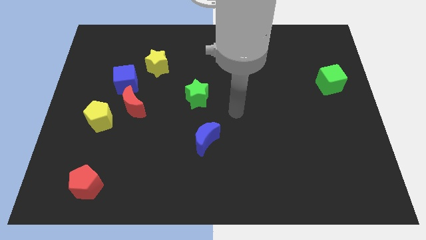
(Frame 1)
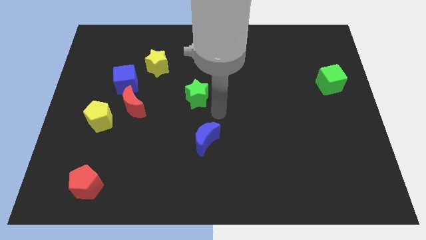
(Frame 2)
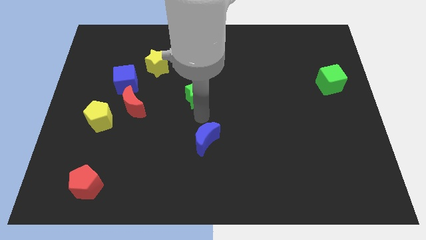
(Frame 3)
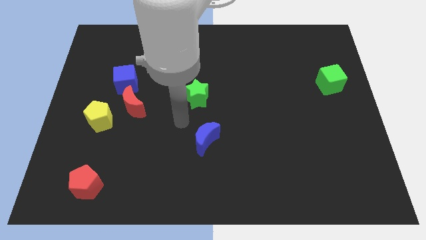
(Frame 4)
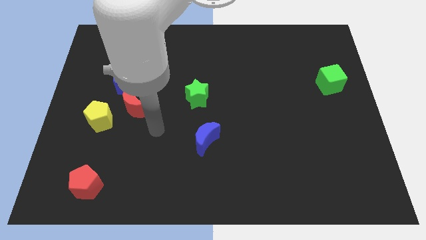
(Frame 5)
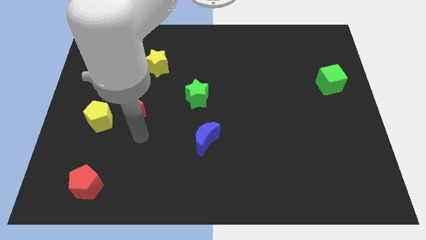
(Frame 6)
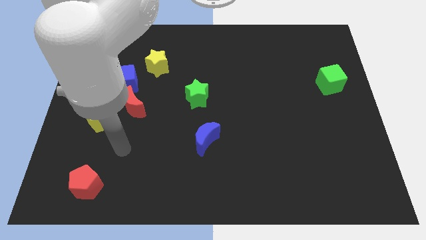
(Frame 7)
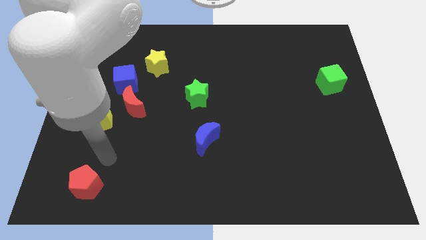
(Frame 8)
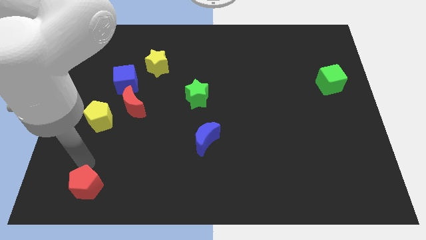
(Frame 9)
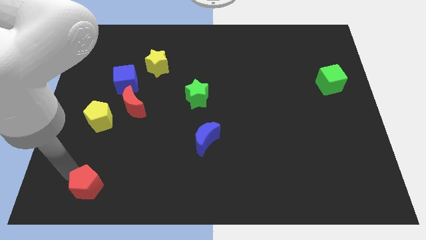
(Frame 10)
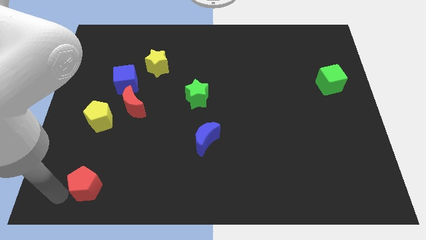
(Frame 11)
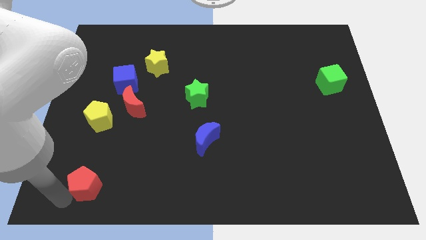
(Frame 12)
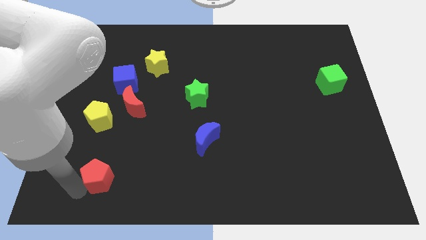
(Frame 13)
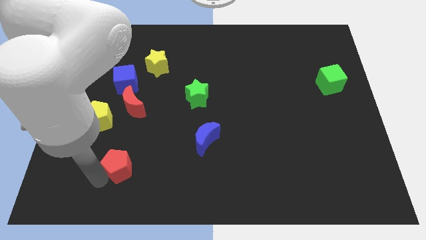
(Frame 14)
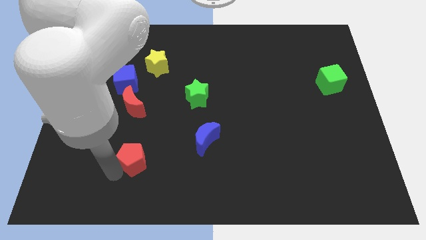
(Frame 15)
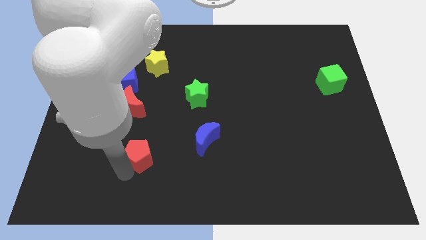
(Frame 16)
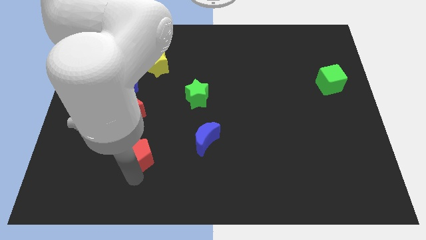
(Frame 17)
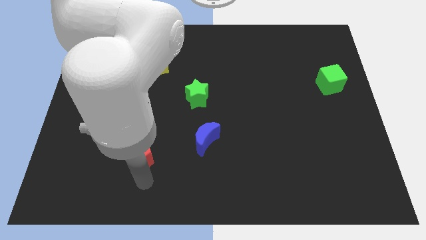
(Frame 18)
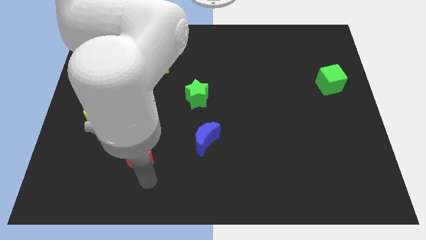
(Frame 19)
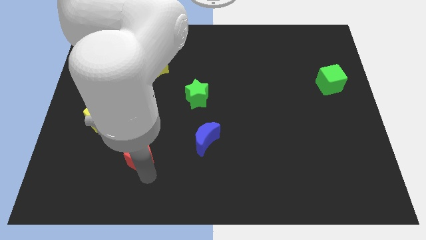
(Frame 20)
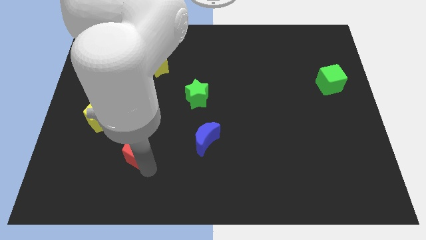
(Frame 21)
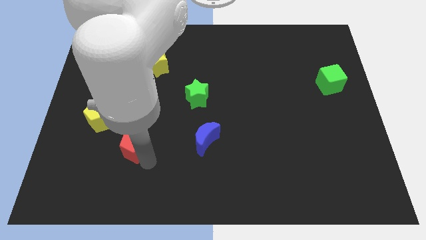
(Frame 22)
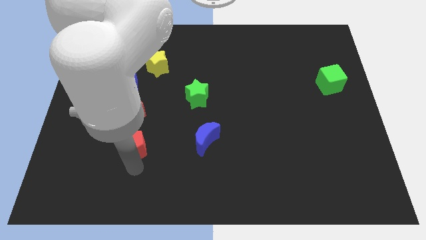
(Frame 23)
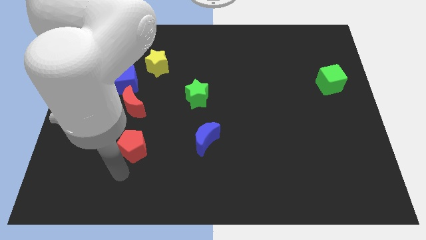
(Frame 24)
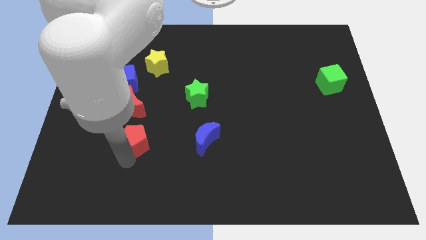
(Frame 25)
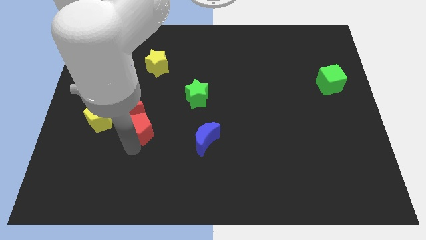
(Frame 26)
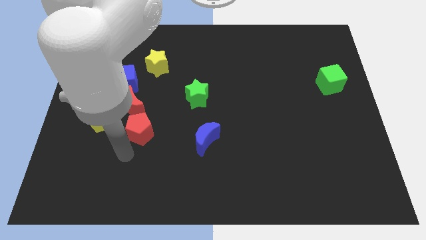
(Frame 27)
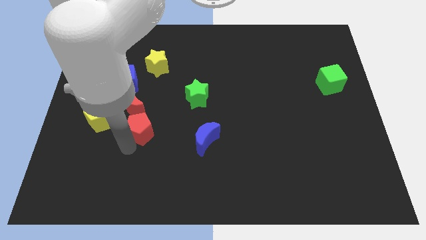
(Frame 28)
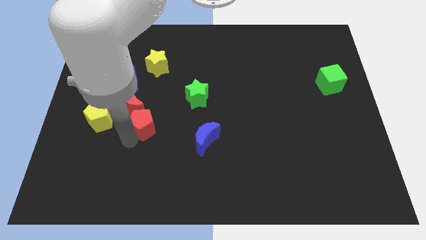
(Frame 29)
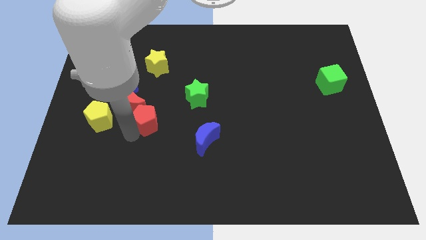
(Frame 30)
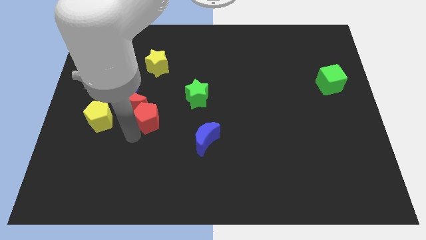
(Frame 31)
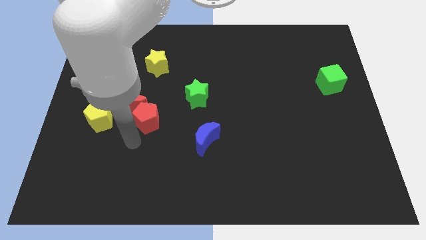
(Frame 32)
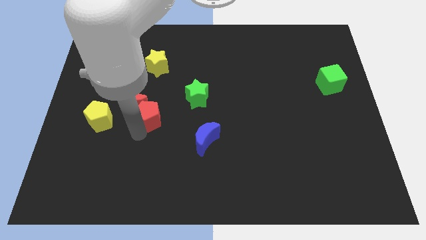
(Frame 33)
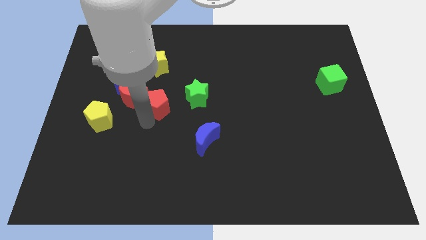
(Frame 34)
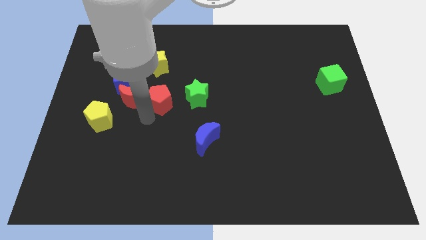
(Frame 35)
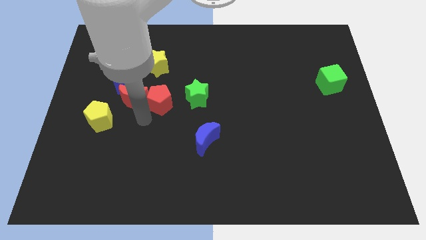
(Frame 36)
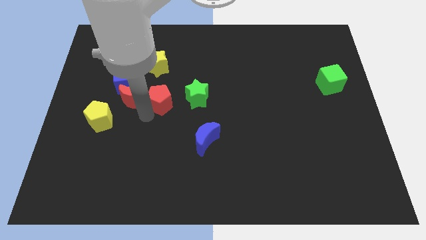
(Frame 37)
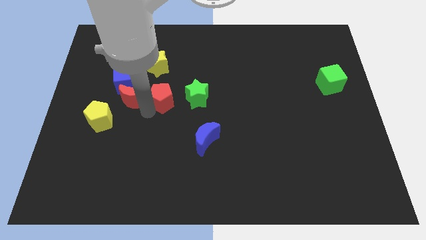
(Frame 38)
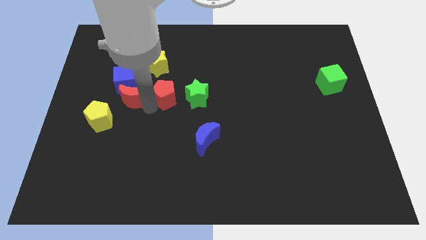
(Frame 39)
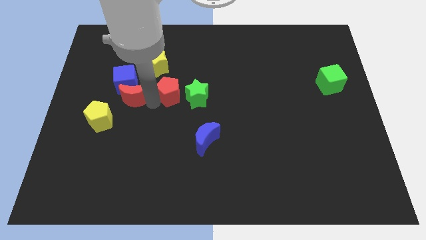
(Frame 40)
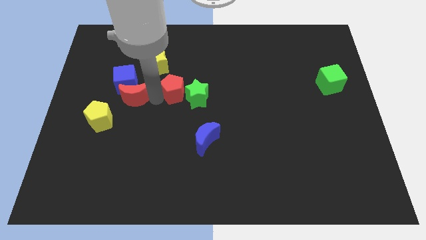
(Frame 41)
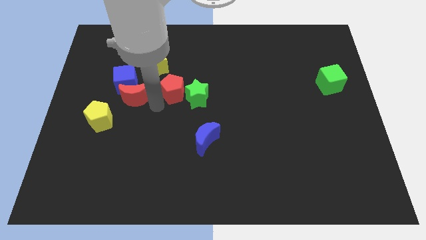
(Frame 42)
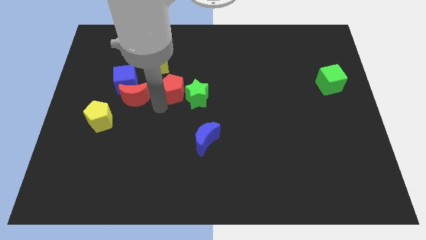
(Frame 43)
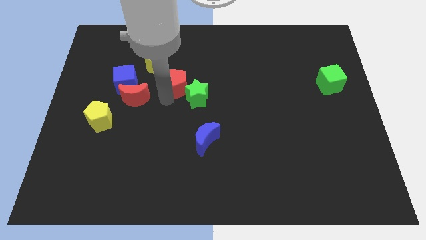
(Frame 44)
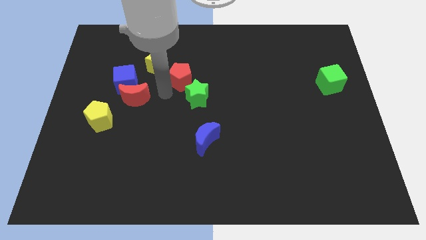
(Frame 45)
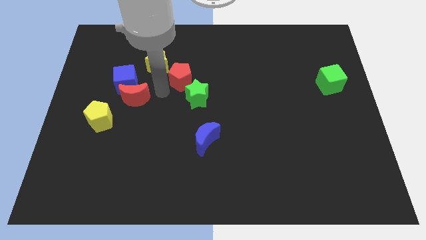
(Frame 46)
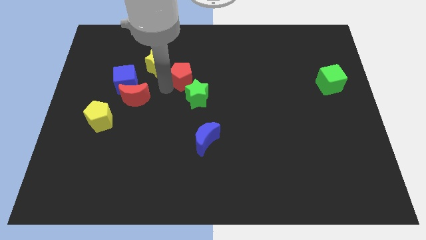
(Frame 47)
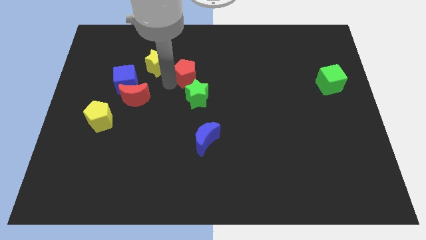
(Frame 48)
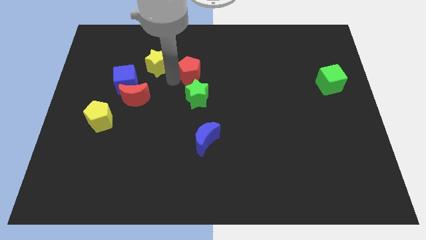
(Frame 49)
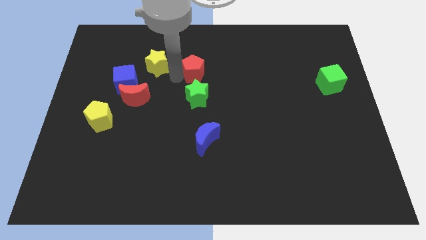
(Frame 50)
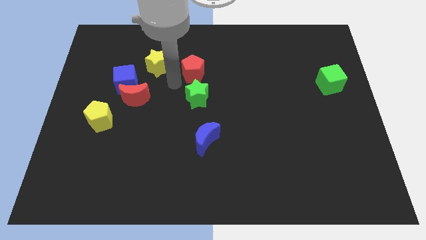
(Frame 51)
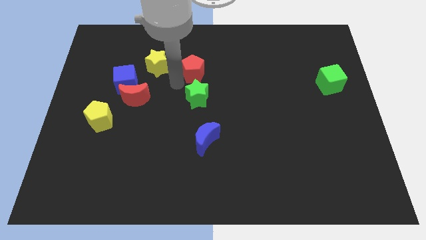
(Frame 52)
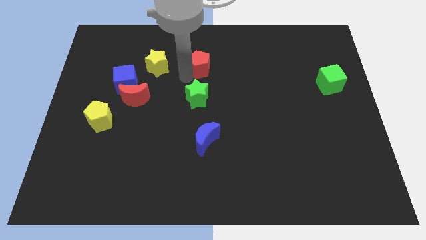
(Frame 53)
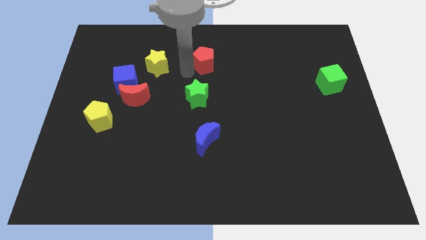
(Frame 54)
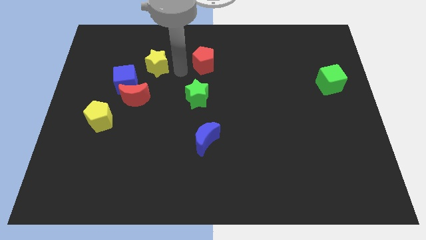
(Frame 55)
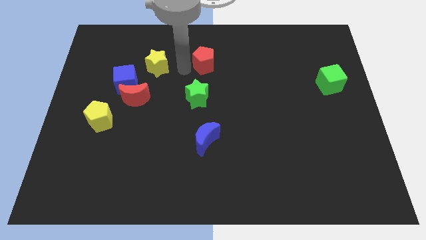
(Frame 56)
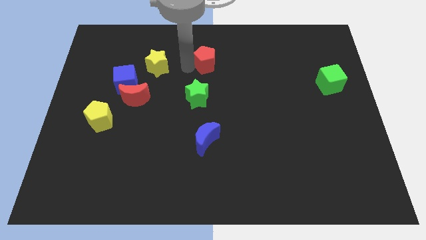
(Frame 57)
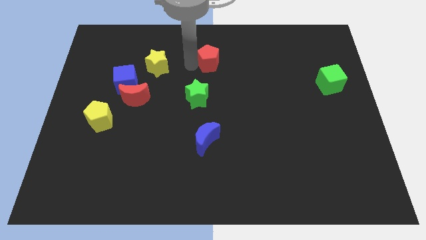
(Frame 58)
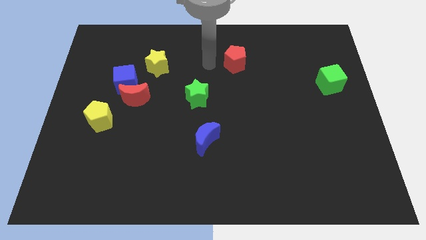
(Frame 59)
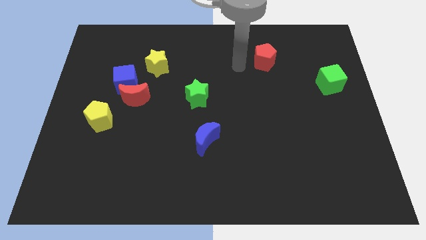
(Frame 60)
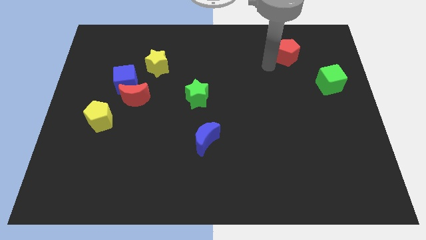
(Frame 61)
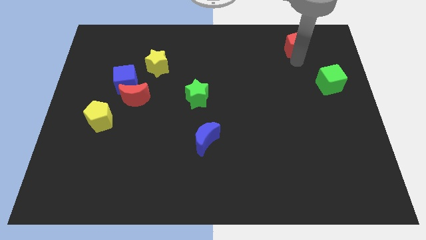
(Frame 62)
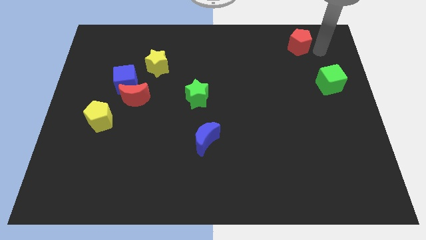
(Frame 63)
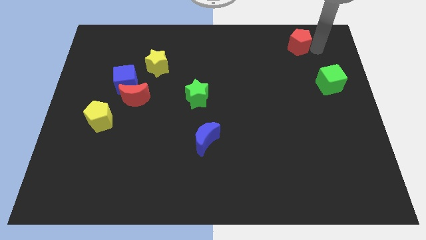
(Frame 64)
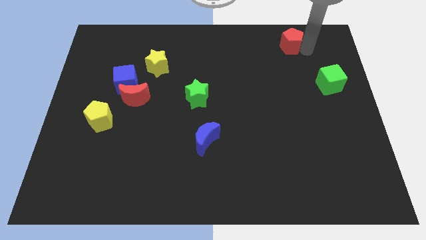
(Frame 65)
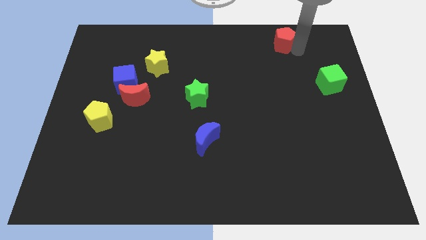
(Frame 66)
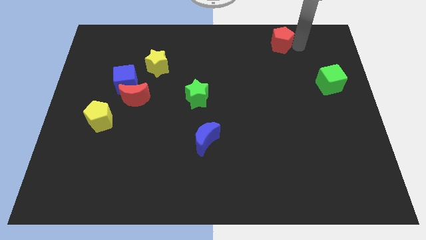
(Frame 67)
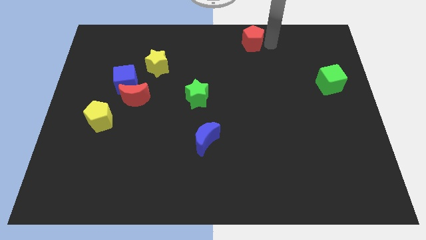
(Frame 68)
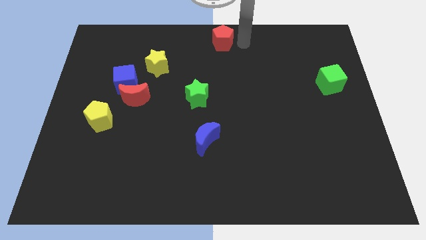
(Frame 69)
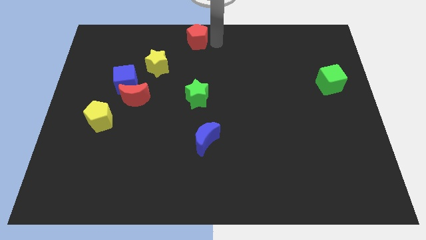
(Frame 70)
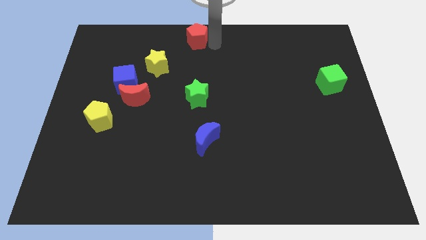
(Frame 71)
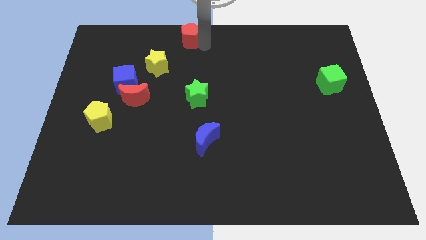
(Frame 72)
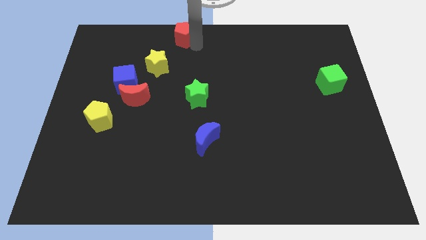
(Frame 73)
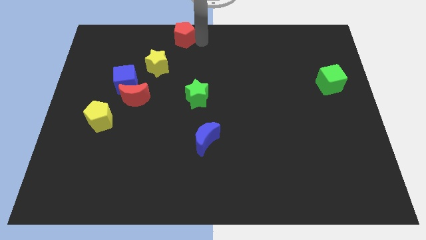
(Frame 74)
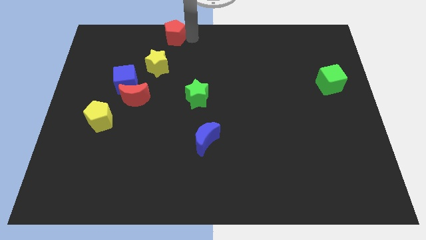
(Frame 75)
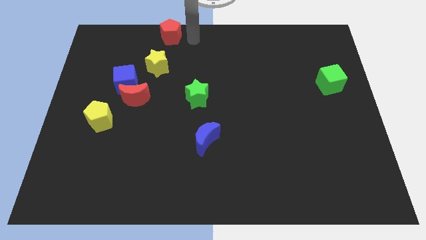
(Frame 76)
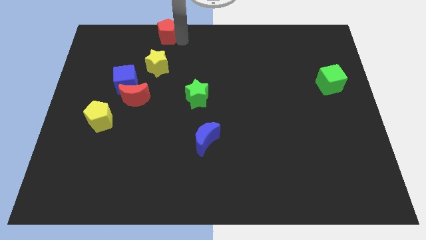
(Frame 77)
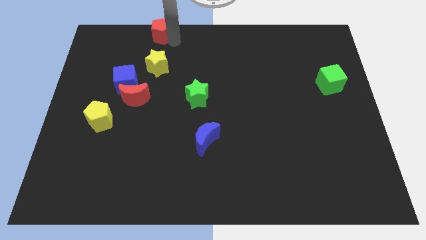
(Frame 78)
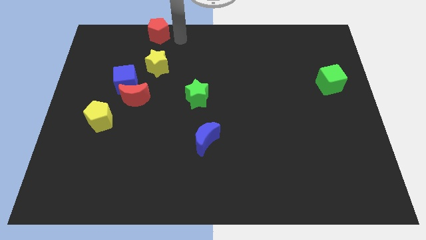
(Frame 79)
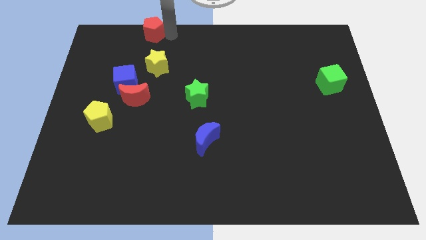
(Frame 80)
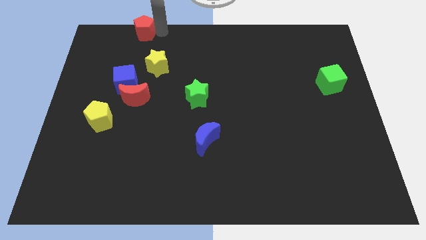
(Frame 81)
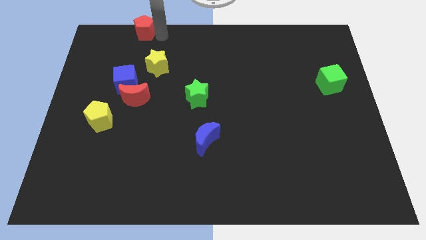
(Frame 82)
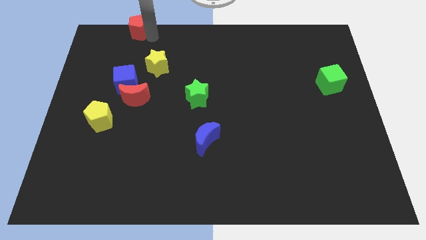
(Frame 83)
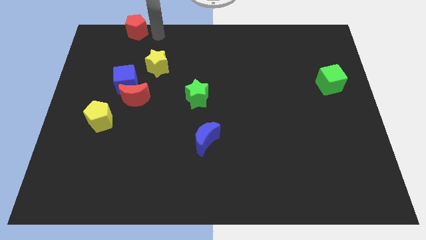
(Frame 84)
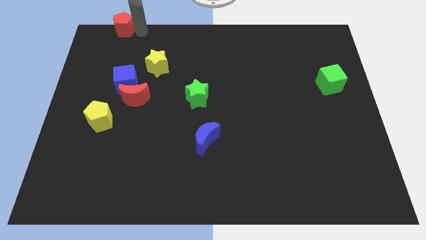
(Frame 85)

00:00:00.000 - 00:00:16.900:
move the red pentagon to the top left of the board
